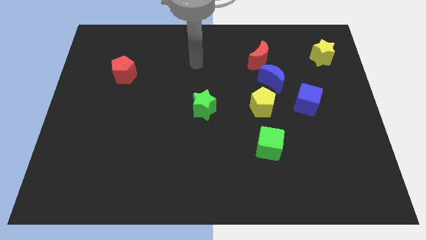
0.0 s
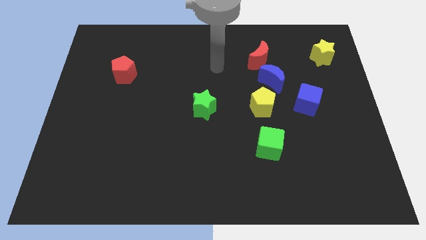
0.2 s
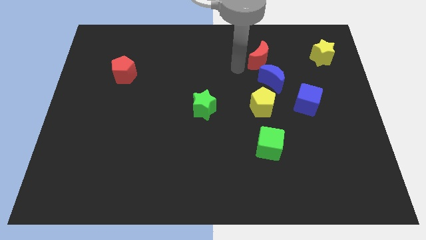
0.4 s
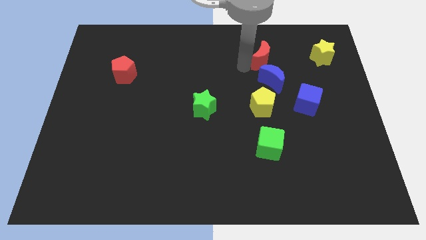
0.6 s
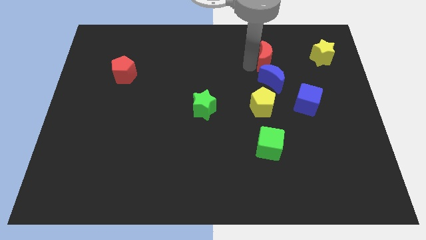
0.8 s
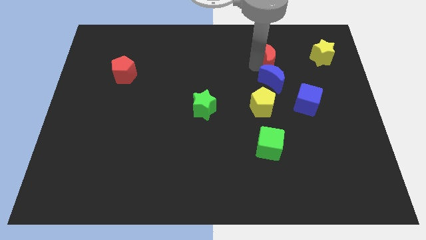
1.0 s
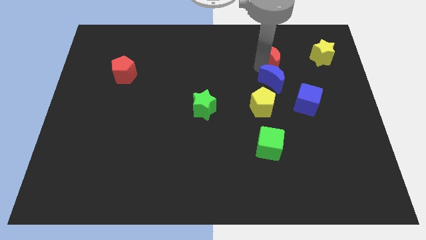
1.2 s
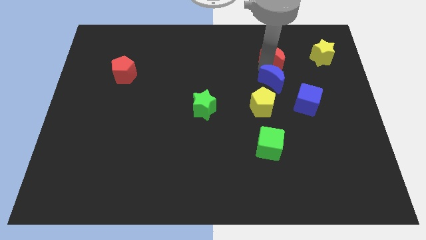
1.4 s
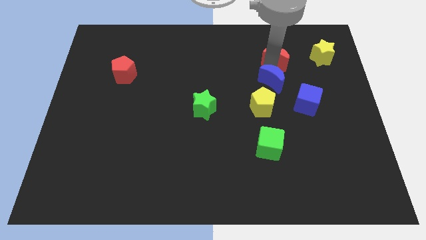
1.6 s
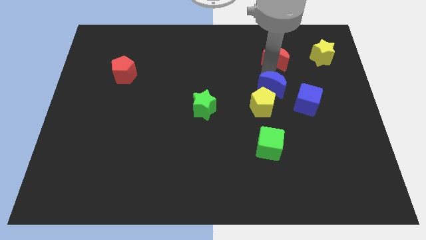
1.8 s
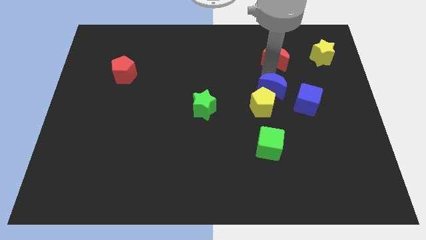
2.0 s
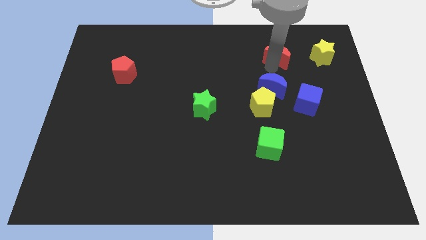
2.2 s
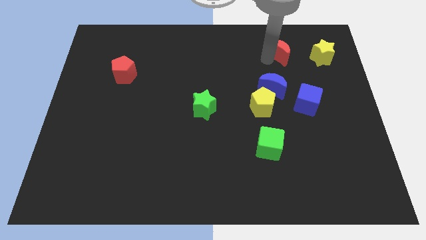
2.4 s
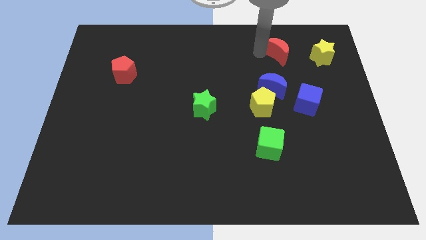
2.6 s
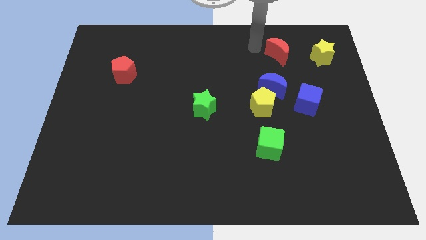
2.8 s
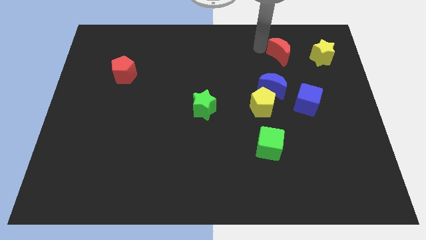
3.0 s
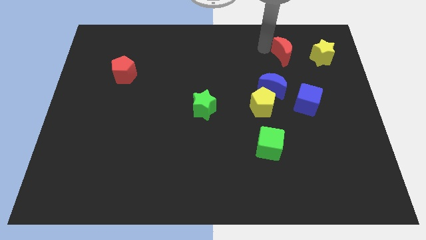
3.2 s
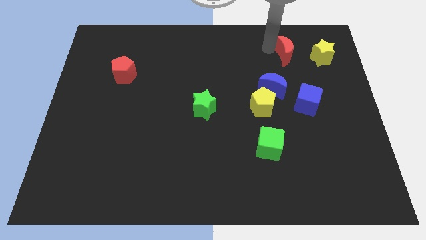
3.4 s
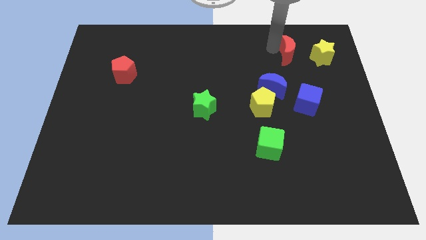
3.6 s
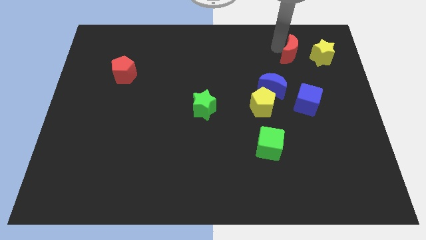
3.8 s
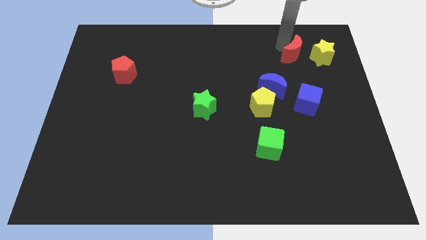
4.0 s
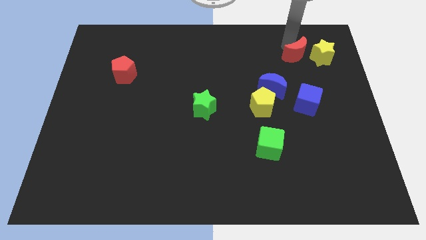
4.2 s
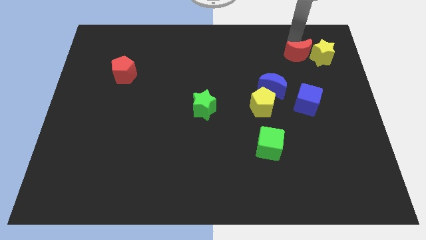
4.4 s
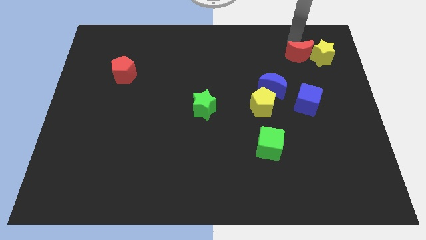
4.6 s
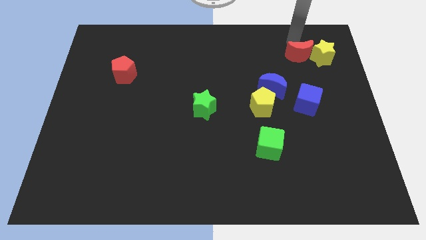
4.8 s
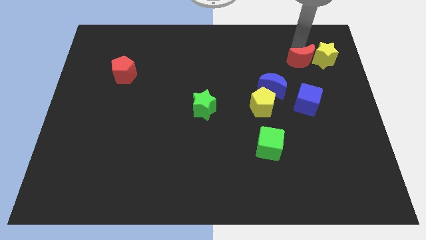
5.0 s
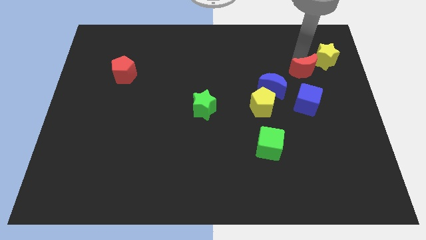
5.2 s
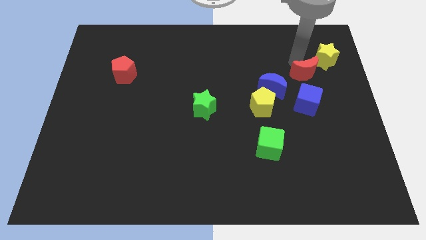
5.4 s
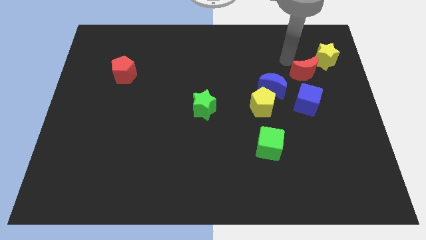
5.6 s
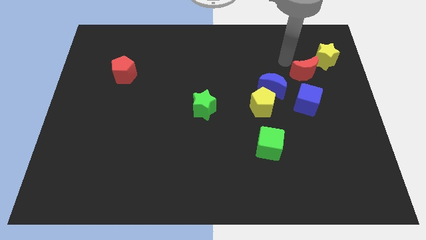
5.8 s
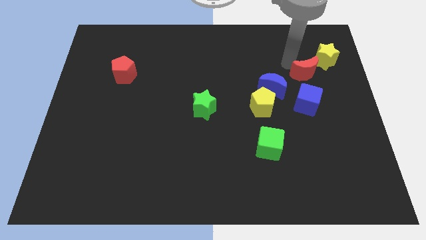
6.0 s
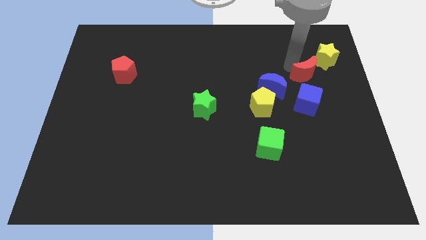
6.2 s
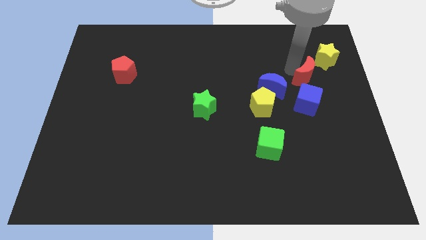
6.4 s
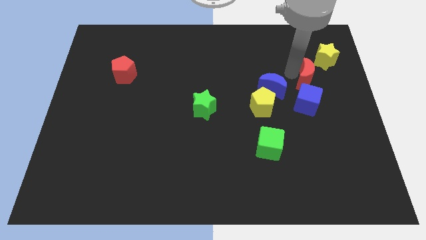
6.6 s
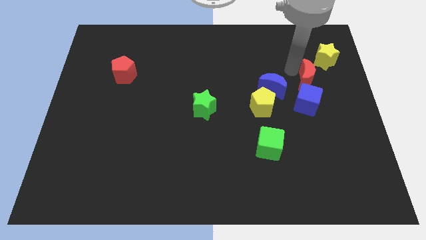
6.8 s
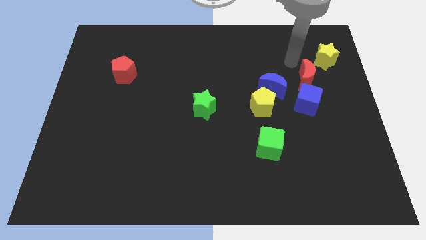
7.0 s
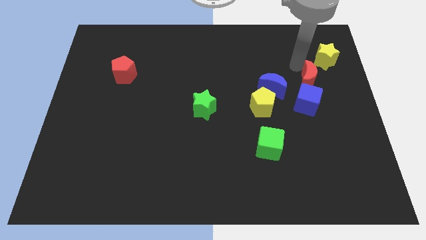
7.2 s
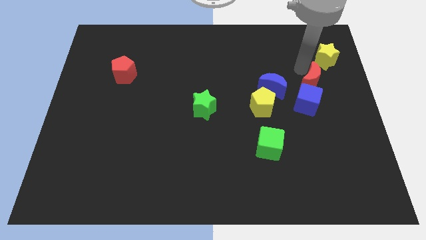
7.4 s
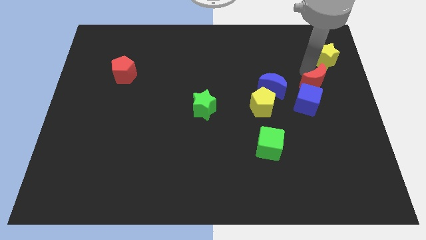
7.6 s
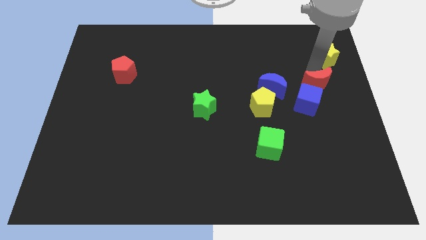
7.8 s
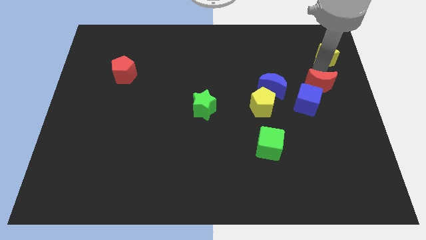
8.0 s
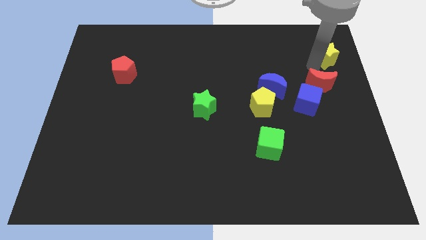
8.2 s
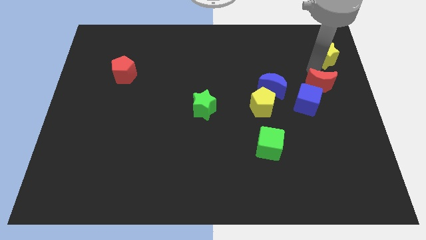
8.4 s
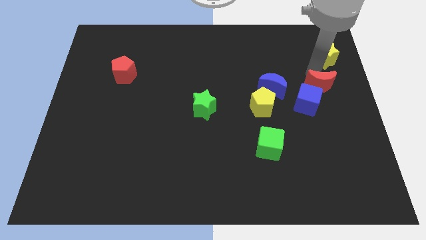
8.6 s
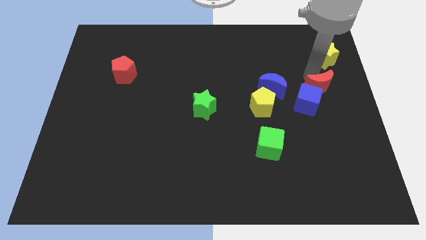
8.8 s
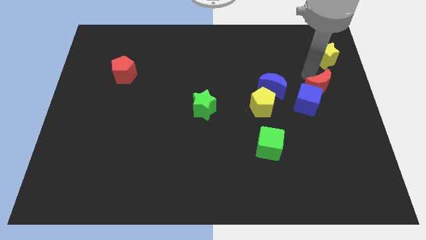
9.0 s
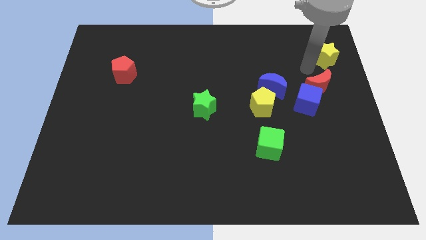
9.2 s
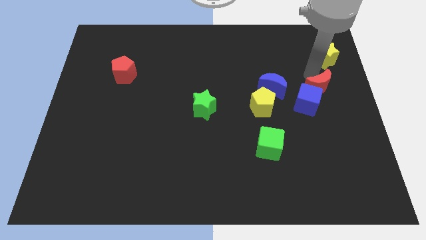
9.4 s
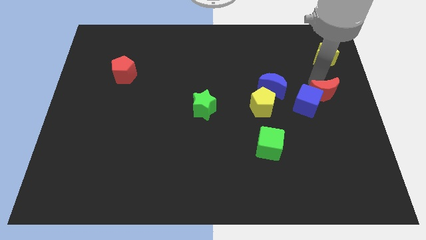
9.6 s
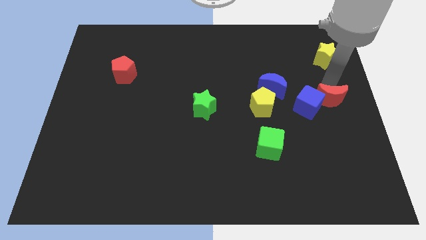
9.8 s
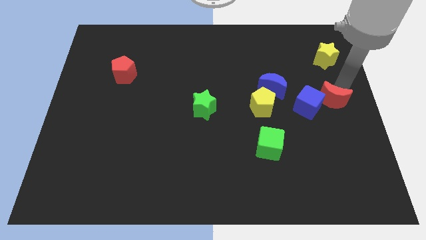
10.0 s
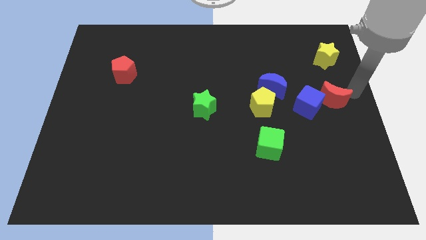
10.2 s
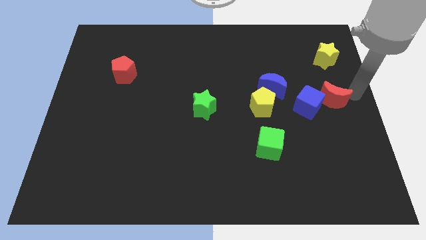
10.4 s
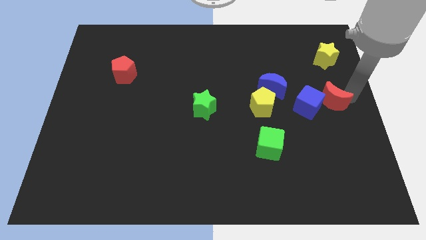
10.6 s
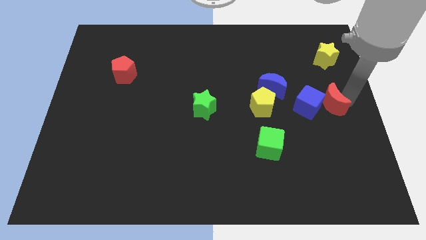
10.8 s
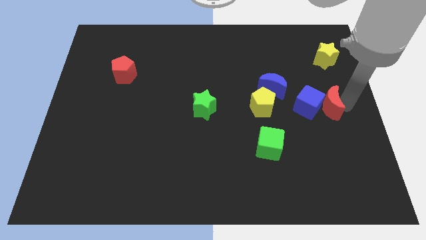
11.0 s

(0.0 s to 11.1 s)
push the red moon just right of the yellow pentagon

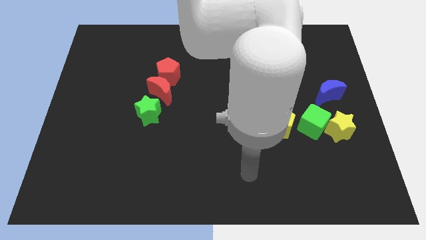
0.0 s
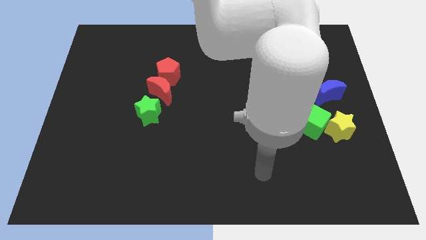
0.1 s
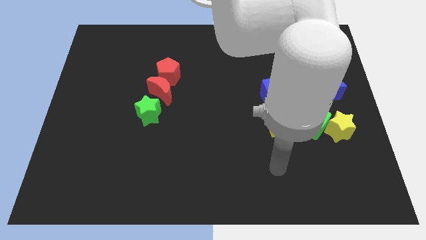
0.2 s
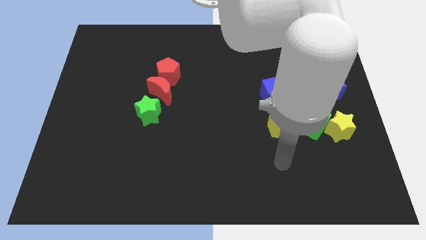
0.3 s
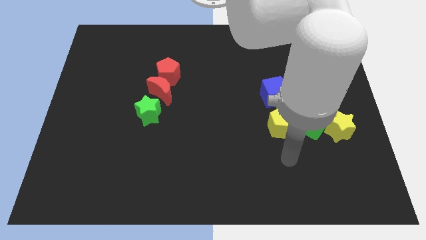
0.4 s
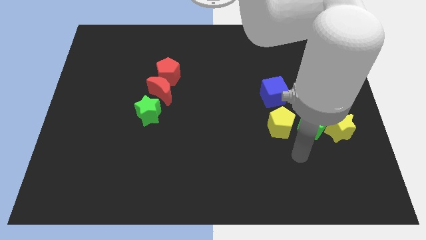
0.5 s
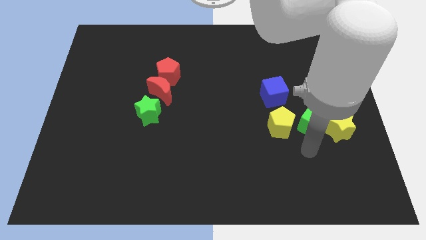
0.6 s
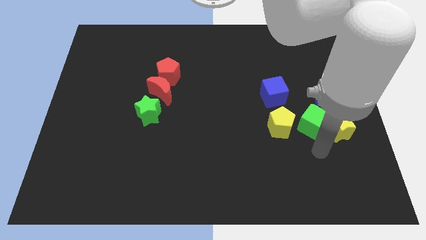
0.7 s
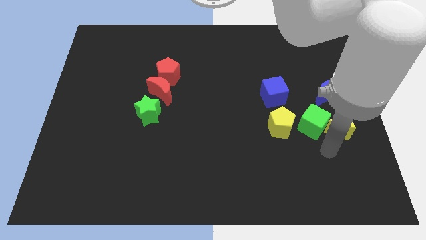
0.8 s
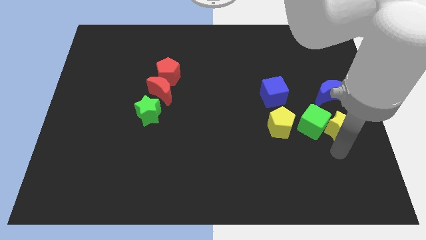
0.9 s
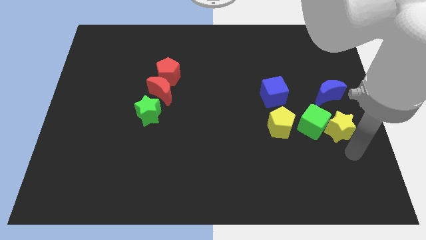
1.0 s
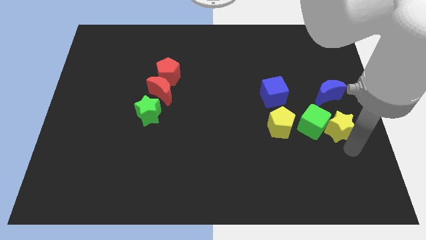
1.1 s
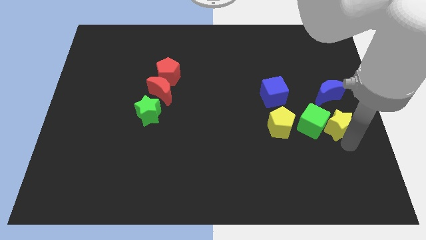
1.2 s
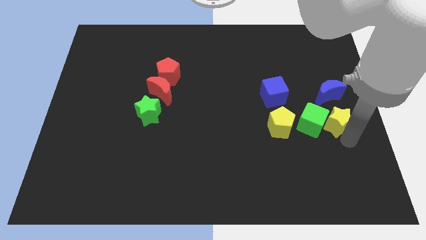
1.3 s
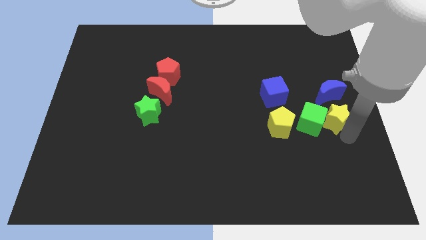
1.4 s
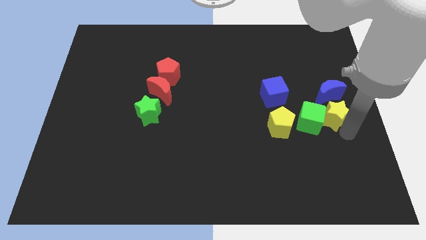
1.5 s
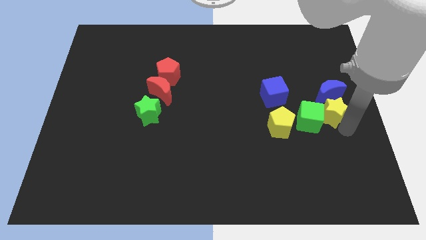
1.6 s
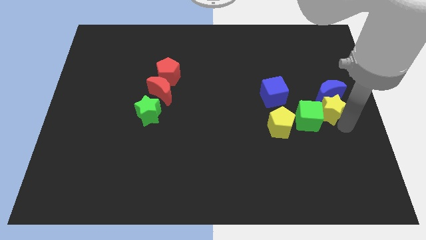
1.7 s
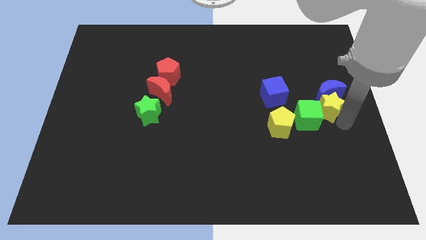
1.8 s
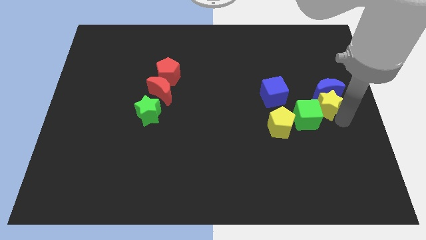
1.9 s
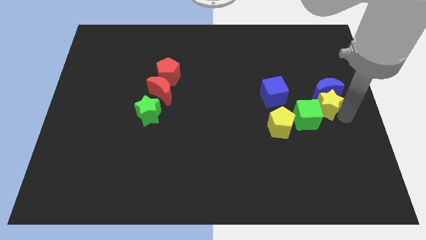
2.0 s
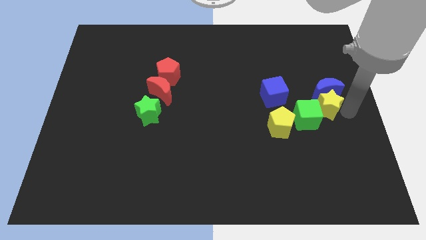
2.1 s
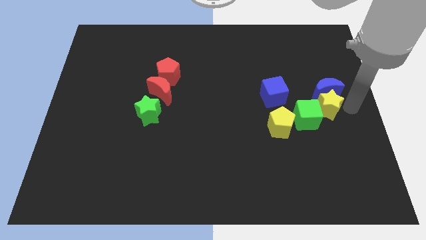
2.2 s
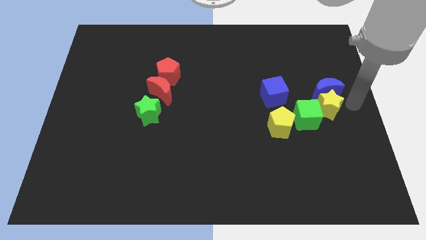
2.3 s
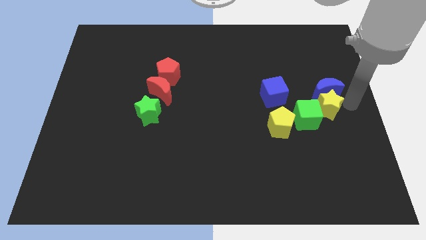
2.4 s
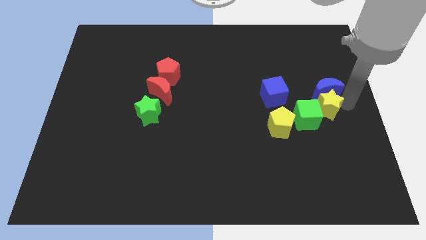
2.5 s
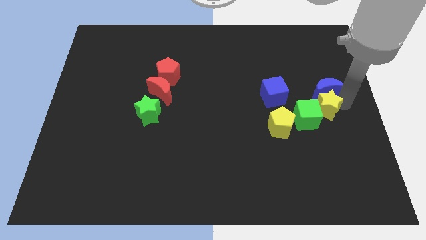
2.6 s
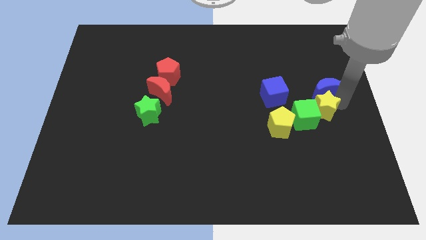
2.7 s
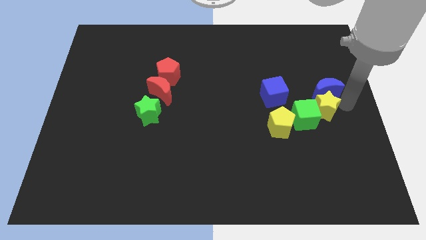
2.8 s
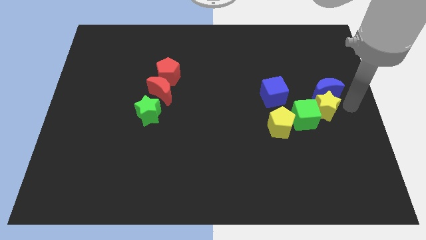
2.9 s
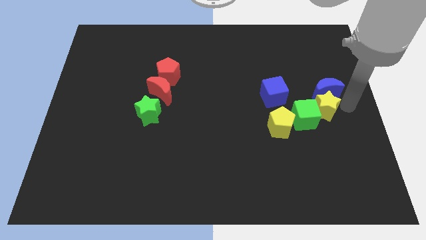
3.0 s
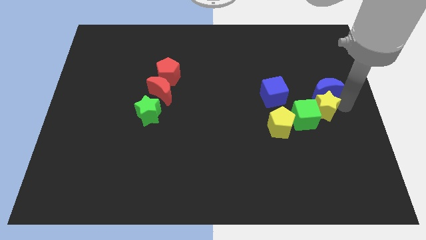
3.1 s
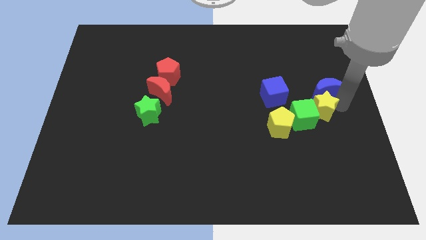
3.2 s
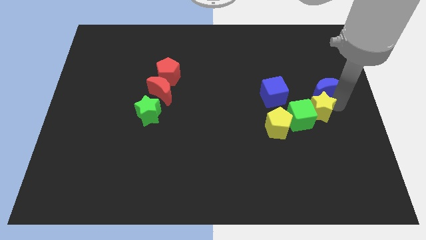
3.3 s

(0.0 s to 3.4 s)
push the yellow star to the bottom right of the blue cube
